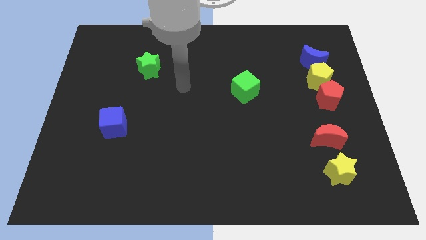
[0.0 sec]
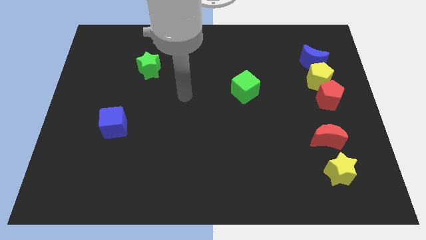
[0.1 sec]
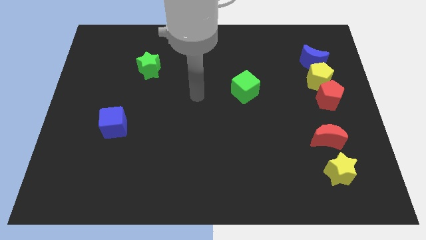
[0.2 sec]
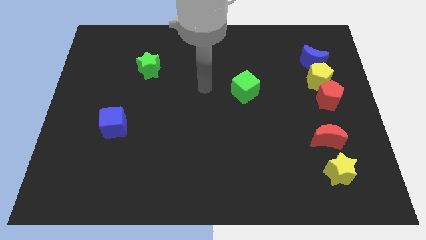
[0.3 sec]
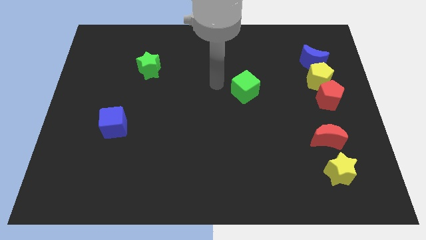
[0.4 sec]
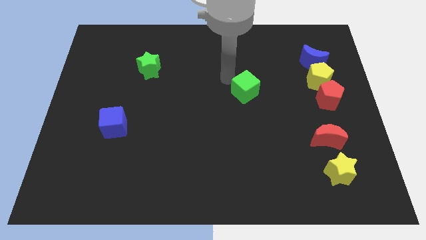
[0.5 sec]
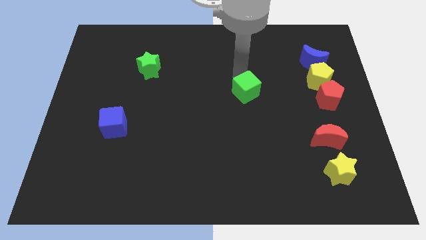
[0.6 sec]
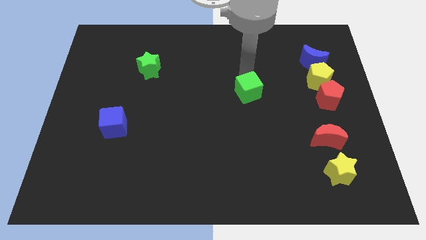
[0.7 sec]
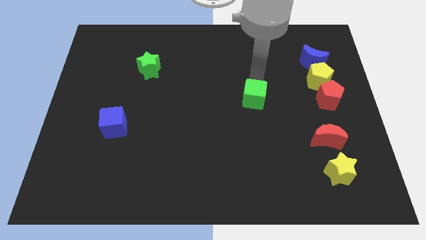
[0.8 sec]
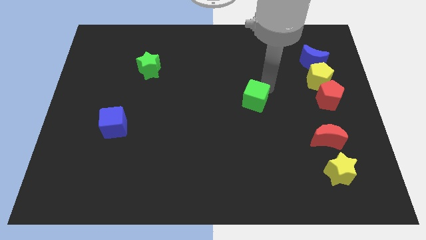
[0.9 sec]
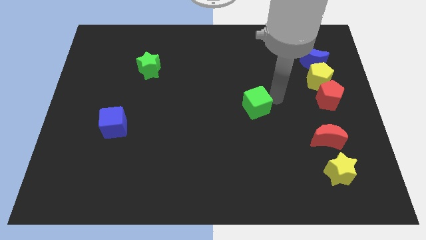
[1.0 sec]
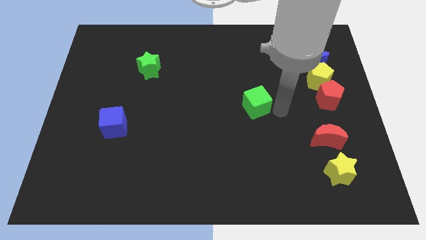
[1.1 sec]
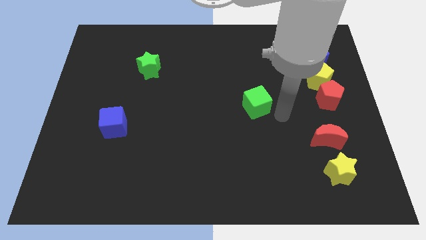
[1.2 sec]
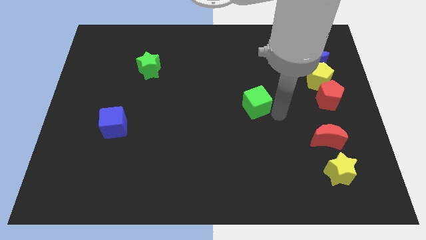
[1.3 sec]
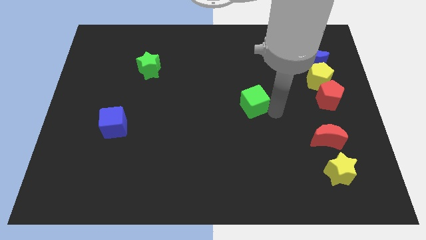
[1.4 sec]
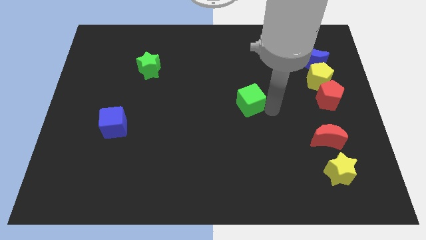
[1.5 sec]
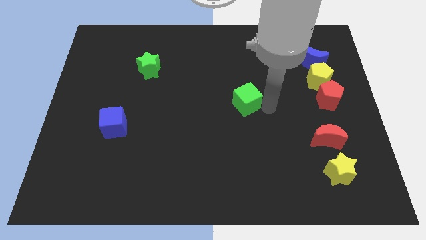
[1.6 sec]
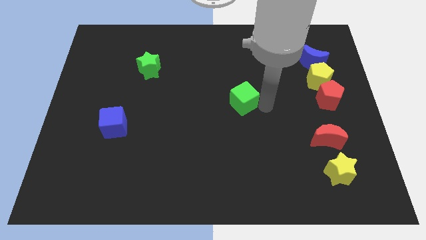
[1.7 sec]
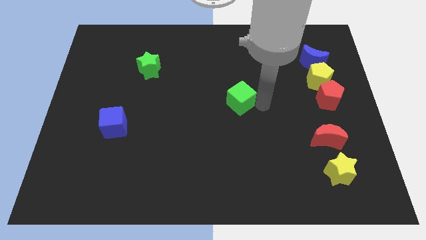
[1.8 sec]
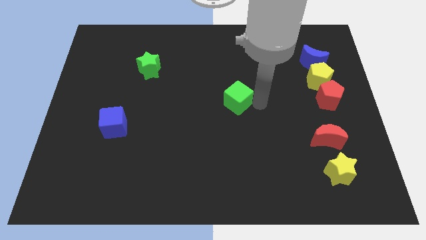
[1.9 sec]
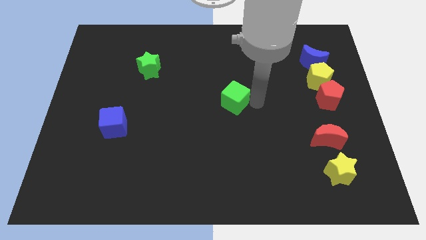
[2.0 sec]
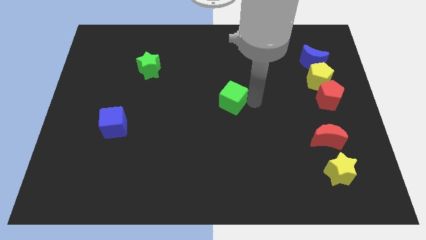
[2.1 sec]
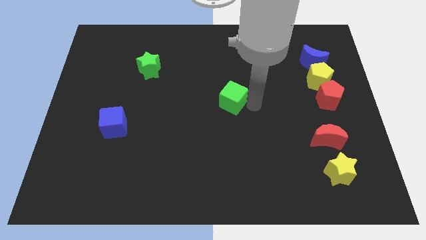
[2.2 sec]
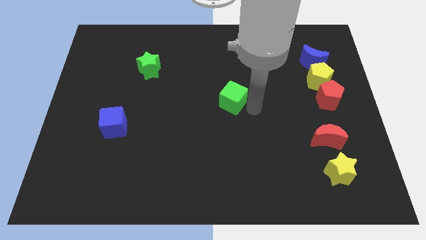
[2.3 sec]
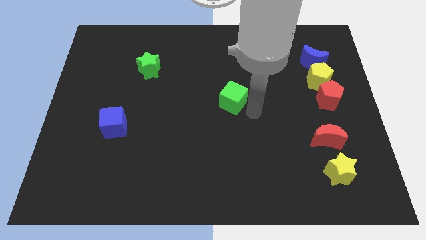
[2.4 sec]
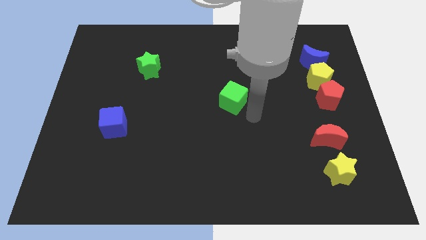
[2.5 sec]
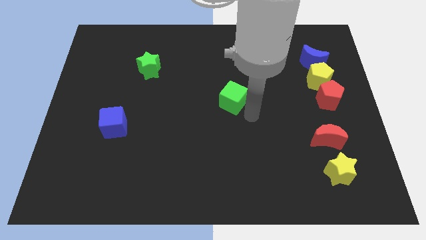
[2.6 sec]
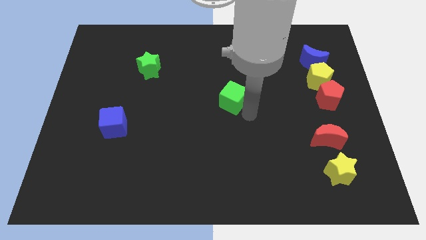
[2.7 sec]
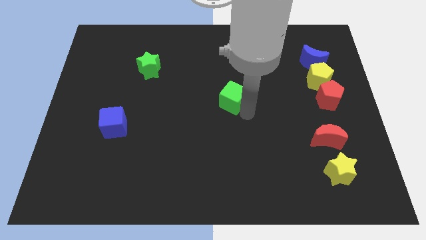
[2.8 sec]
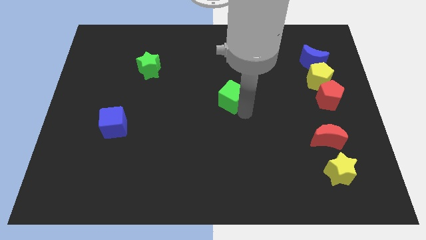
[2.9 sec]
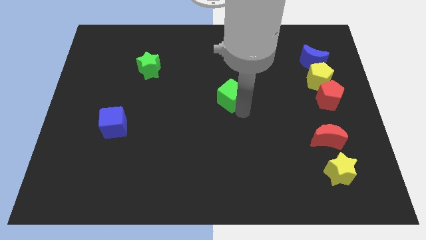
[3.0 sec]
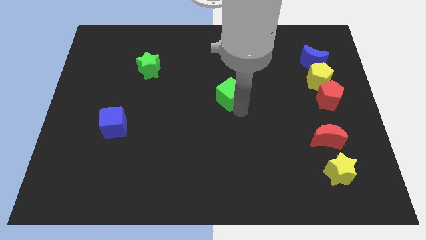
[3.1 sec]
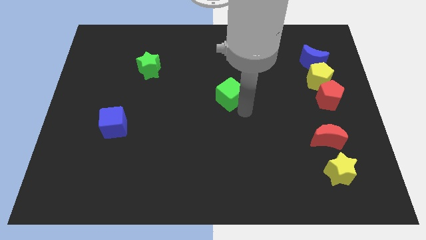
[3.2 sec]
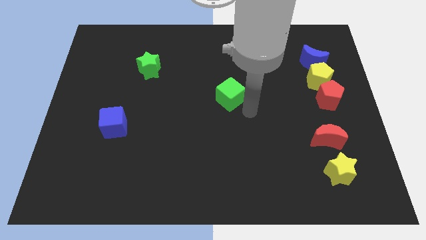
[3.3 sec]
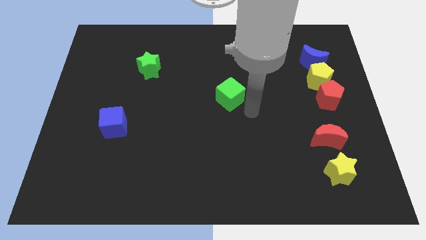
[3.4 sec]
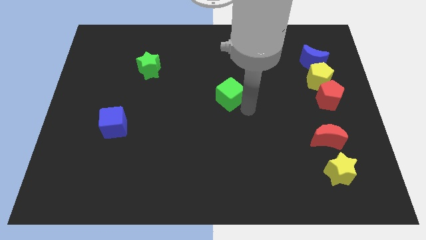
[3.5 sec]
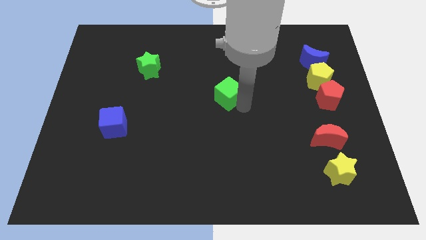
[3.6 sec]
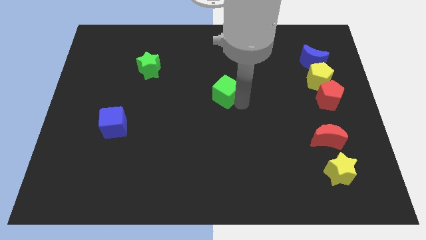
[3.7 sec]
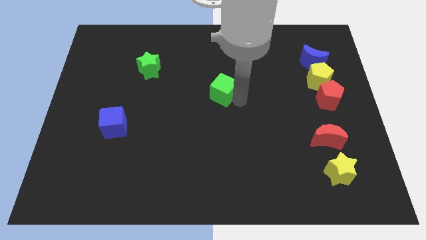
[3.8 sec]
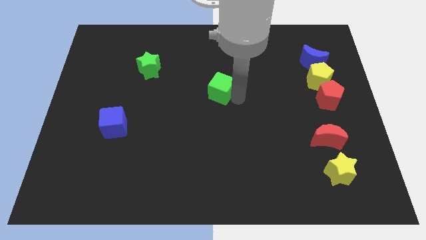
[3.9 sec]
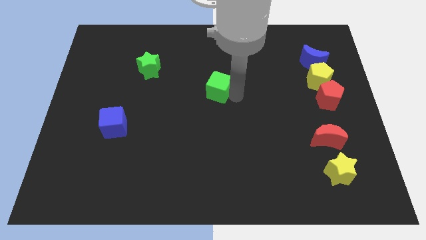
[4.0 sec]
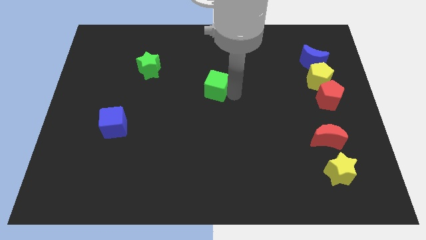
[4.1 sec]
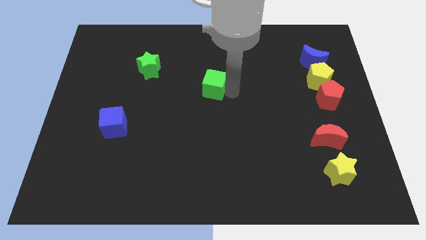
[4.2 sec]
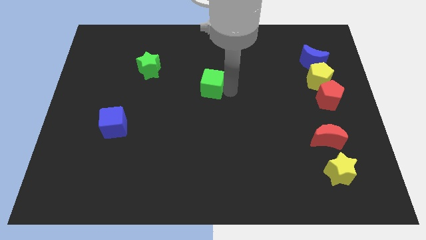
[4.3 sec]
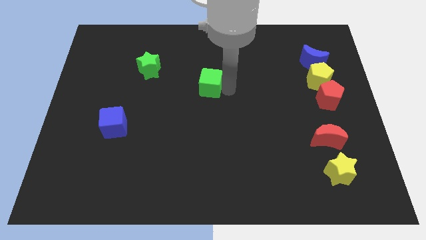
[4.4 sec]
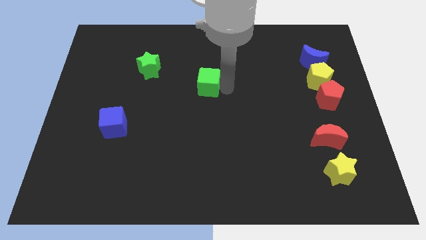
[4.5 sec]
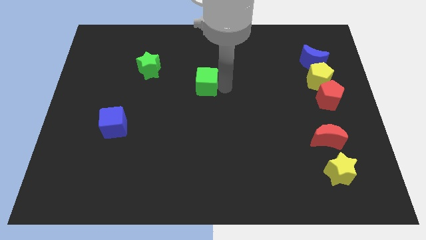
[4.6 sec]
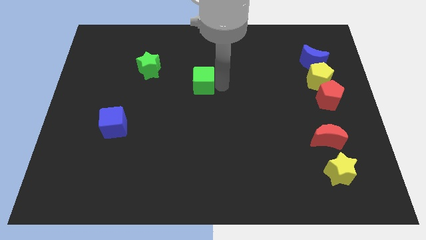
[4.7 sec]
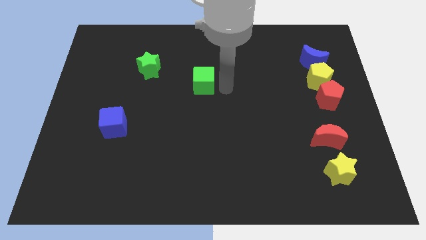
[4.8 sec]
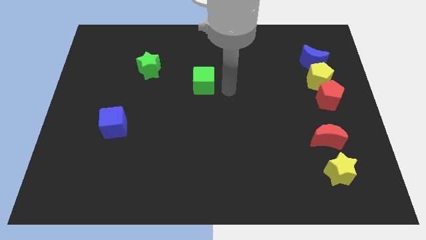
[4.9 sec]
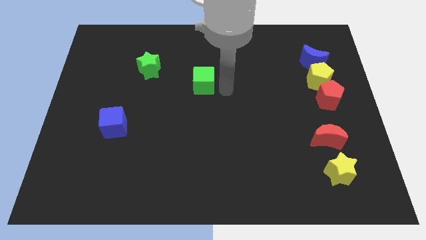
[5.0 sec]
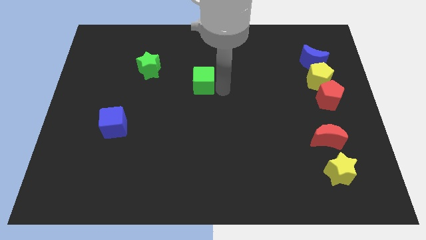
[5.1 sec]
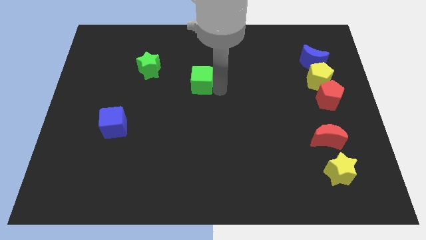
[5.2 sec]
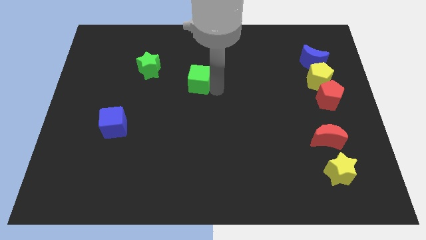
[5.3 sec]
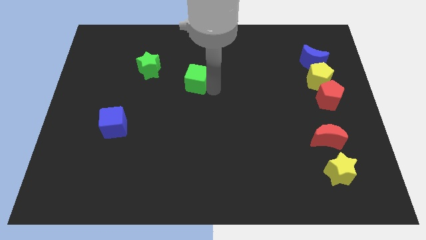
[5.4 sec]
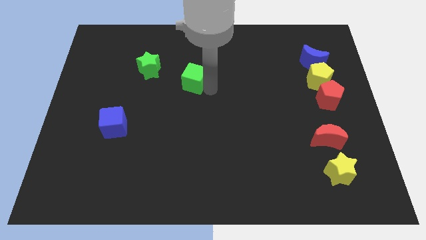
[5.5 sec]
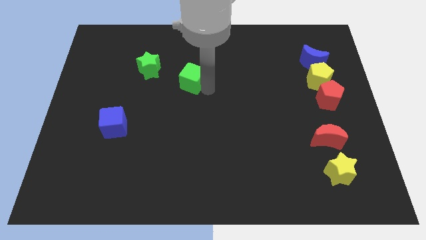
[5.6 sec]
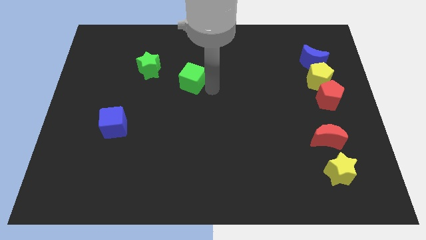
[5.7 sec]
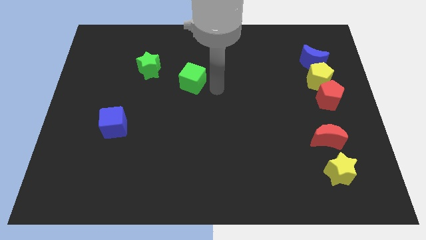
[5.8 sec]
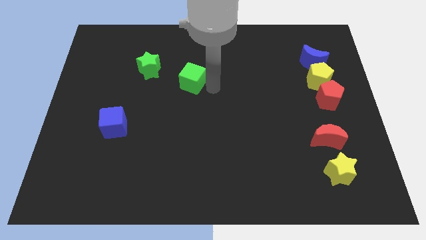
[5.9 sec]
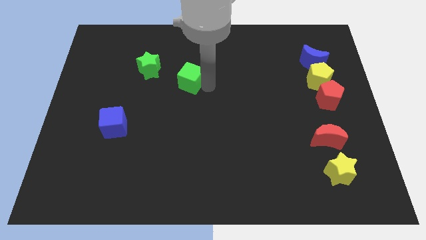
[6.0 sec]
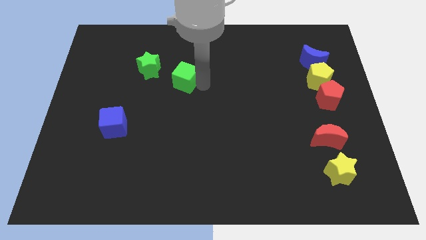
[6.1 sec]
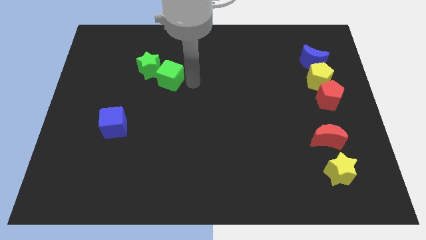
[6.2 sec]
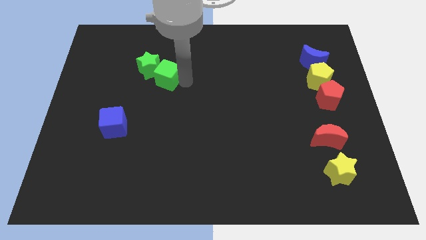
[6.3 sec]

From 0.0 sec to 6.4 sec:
push the green cube close to the green star
